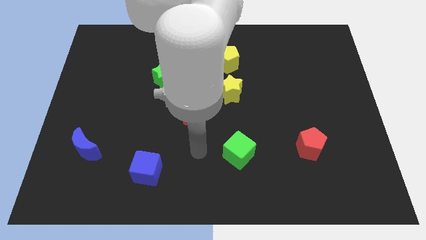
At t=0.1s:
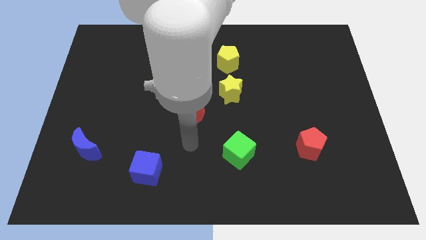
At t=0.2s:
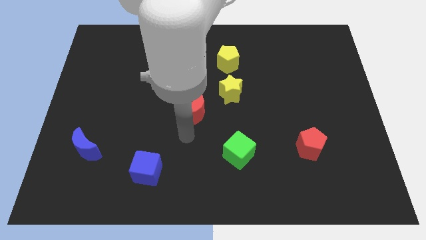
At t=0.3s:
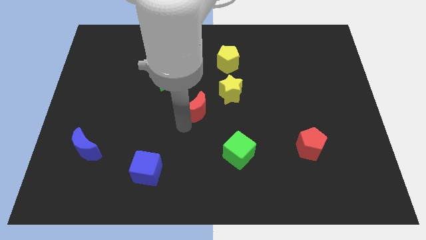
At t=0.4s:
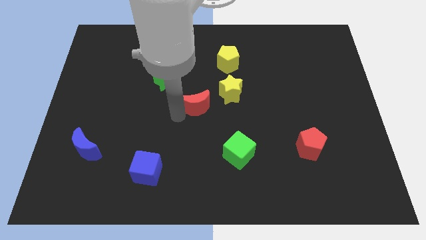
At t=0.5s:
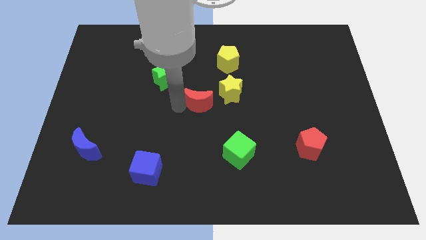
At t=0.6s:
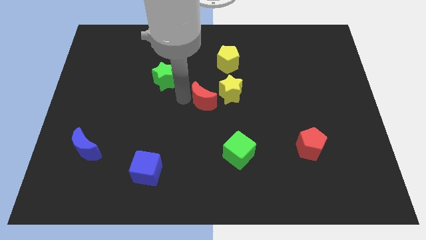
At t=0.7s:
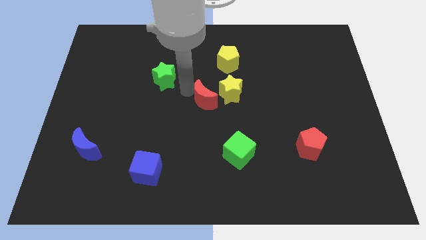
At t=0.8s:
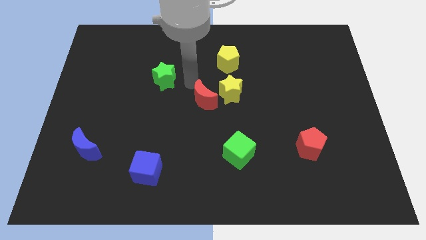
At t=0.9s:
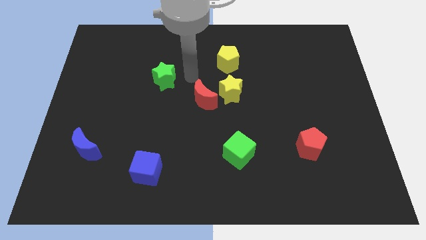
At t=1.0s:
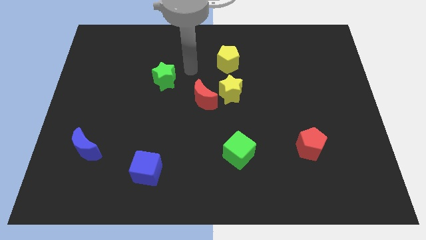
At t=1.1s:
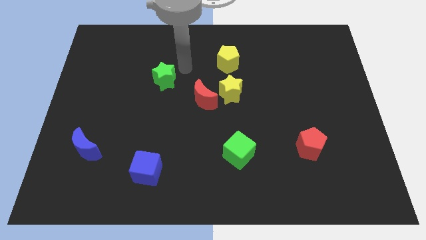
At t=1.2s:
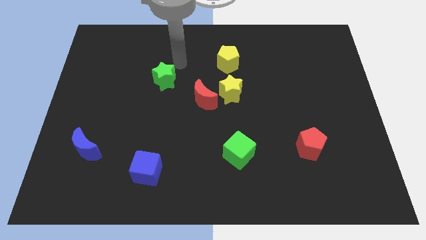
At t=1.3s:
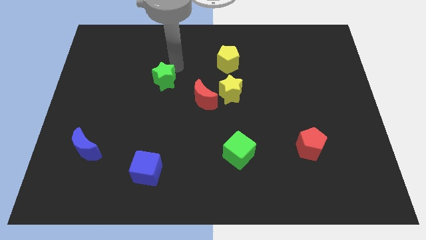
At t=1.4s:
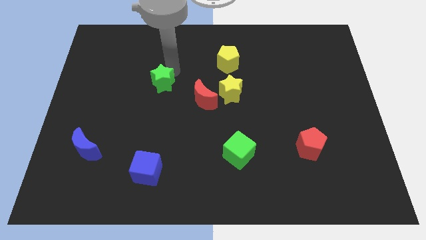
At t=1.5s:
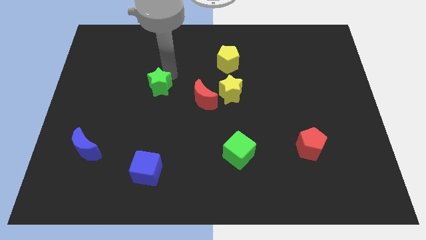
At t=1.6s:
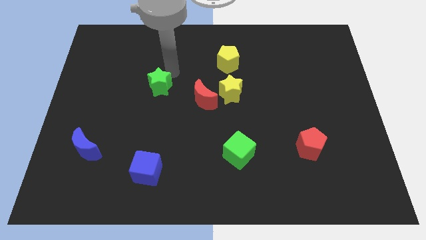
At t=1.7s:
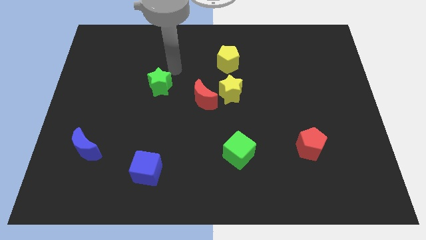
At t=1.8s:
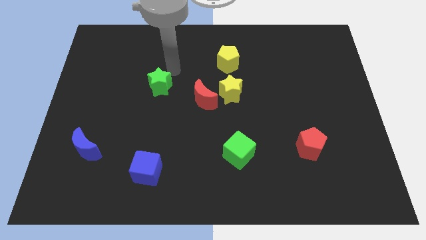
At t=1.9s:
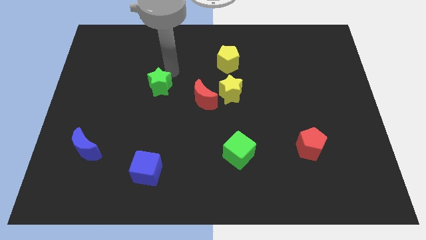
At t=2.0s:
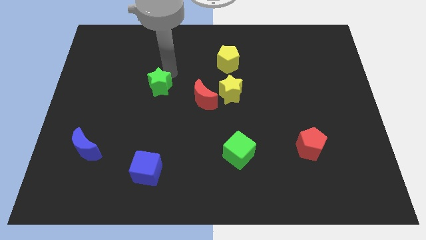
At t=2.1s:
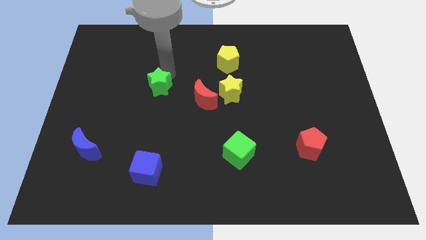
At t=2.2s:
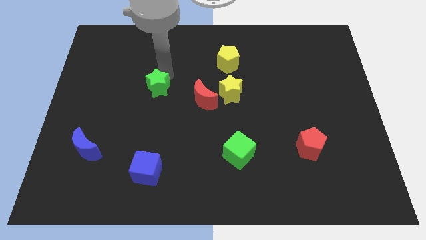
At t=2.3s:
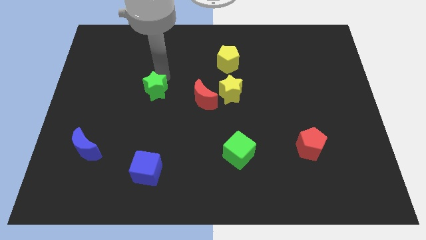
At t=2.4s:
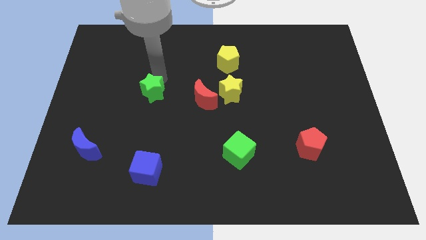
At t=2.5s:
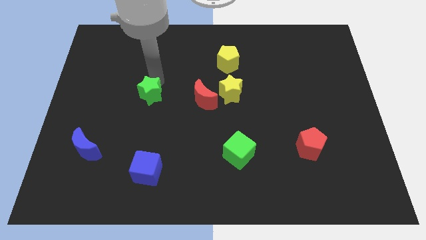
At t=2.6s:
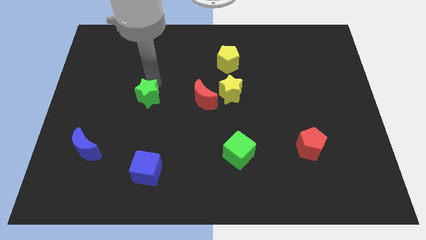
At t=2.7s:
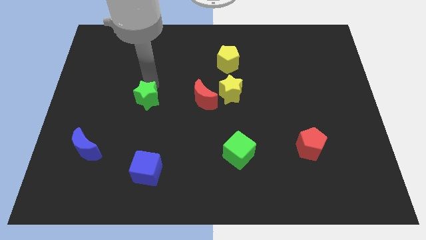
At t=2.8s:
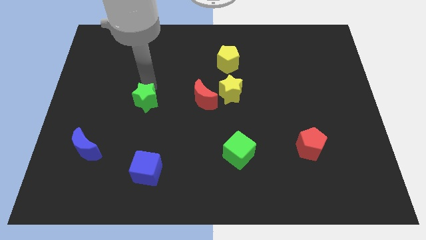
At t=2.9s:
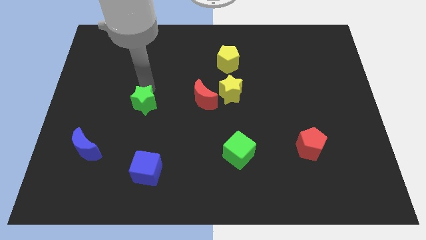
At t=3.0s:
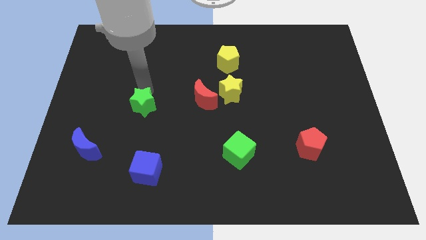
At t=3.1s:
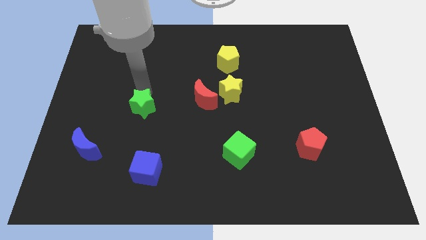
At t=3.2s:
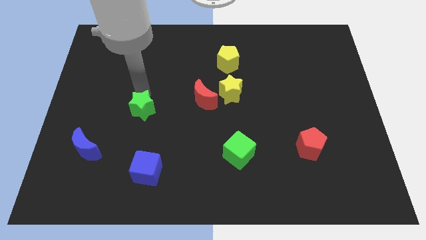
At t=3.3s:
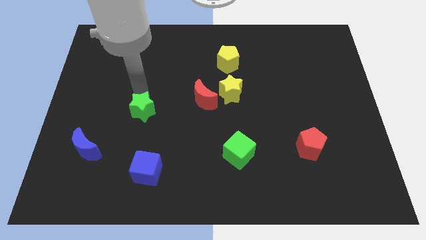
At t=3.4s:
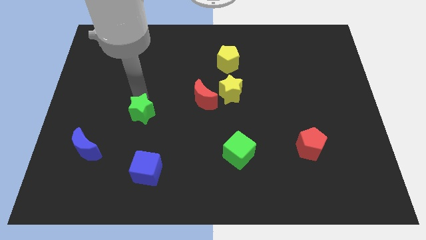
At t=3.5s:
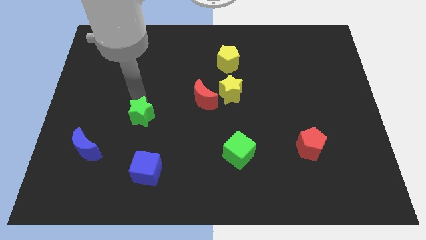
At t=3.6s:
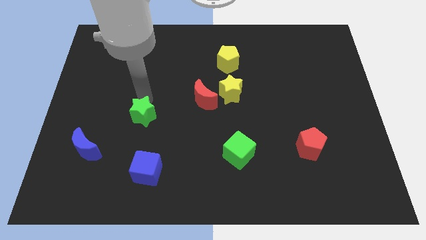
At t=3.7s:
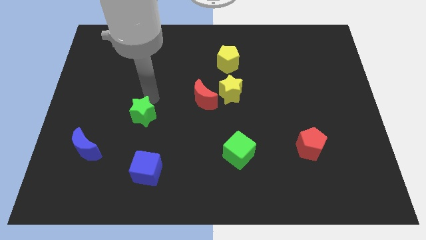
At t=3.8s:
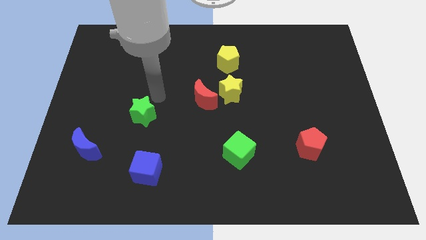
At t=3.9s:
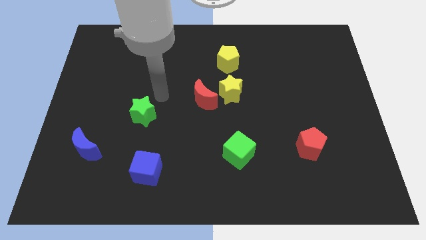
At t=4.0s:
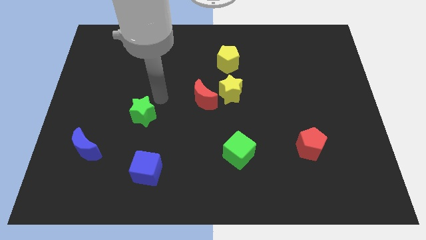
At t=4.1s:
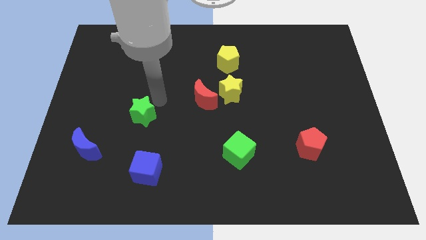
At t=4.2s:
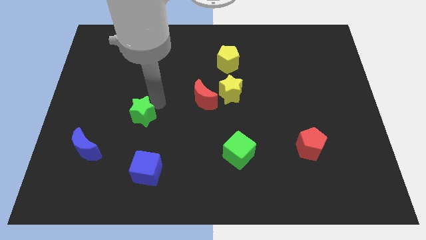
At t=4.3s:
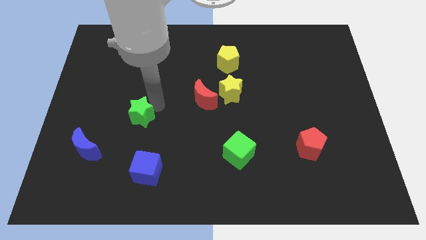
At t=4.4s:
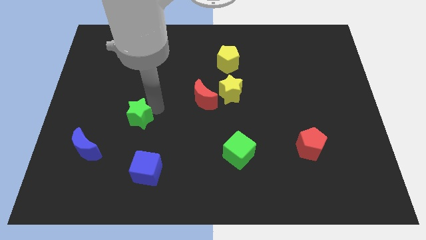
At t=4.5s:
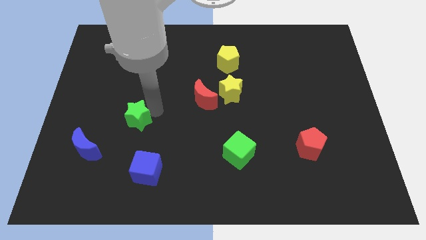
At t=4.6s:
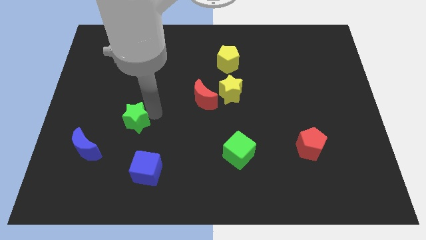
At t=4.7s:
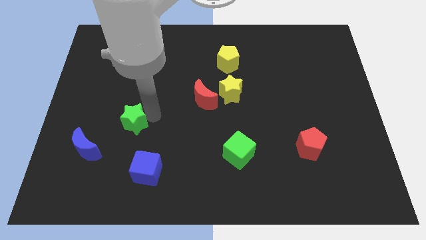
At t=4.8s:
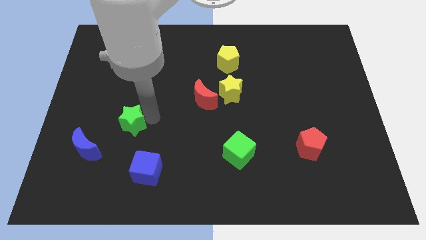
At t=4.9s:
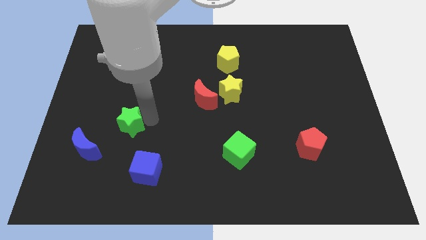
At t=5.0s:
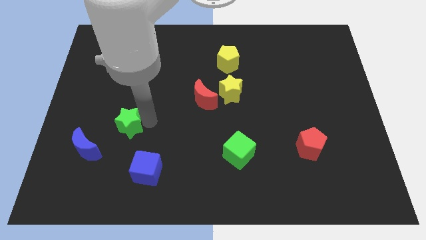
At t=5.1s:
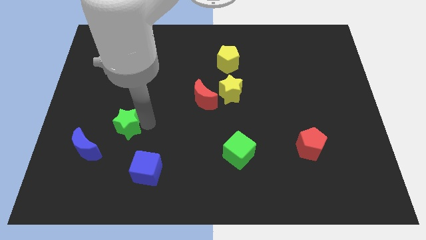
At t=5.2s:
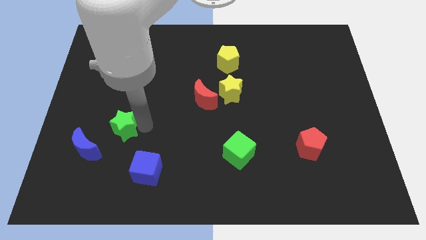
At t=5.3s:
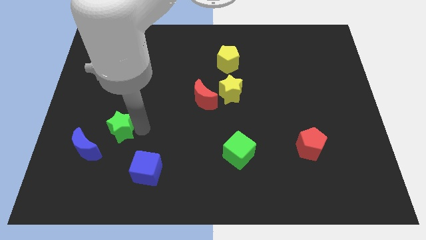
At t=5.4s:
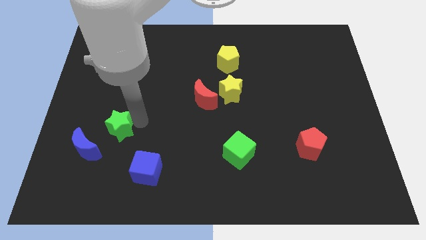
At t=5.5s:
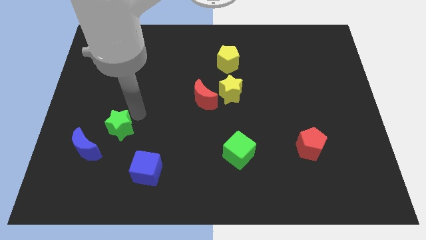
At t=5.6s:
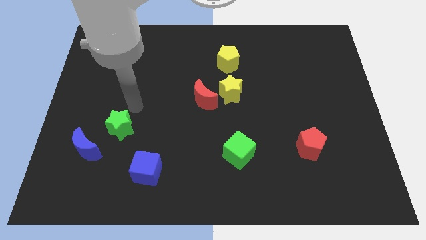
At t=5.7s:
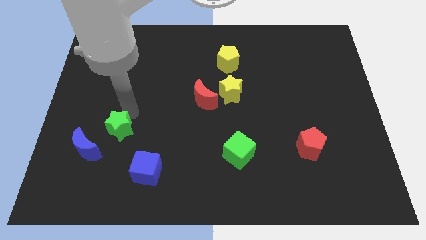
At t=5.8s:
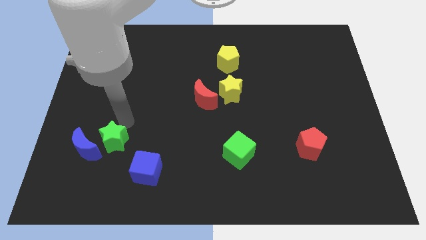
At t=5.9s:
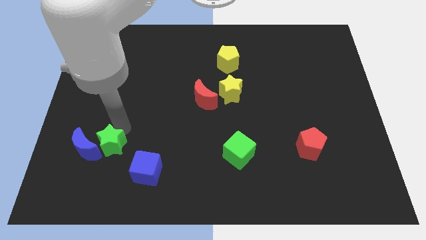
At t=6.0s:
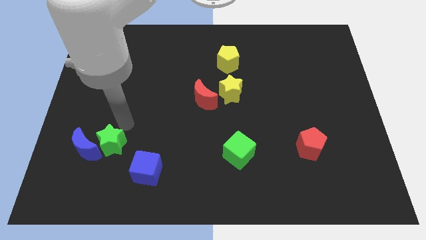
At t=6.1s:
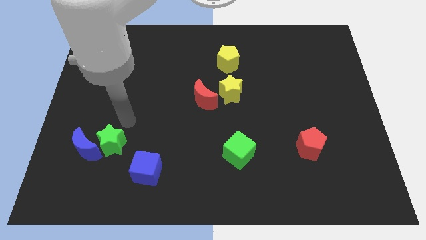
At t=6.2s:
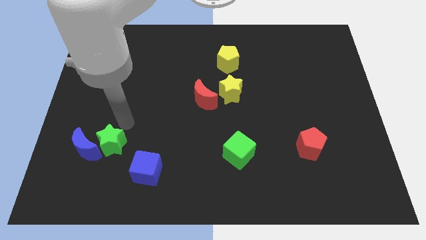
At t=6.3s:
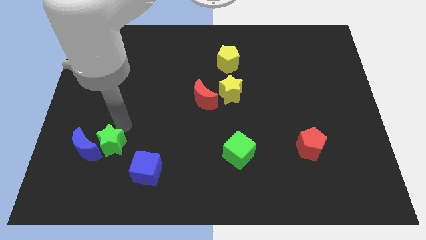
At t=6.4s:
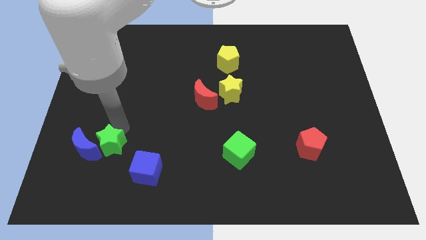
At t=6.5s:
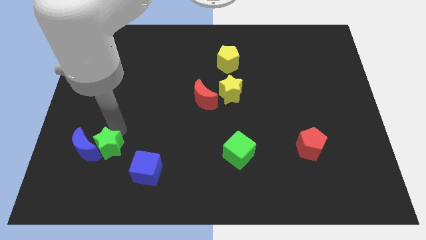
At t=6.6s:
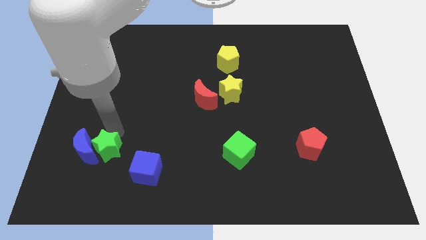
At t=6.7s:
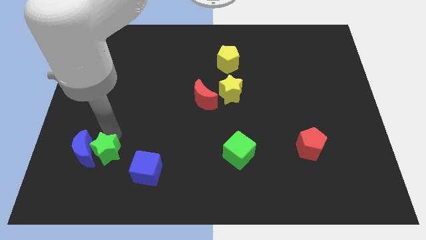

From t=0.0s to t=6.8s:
put the green star to the left side of the blue cube
